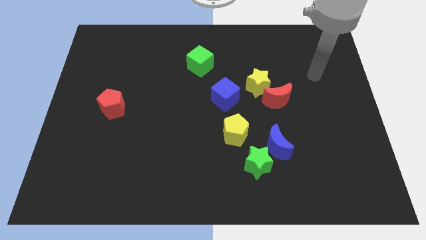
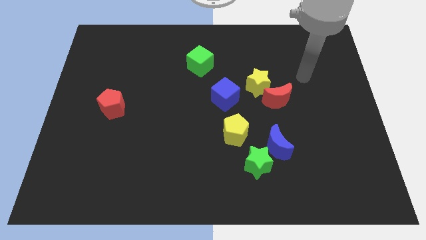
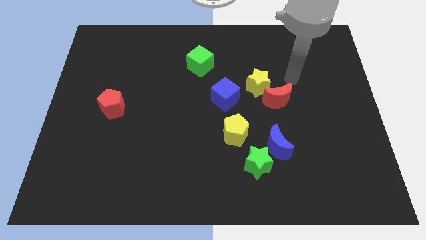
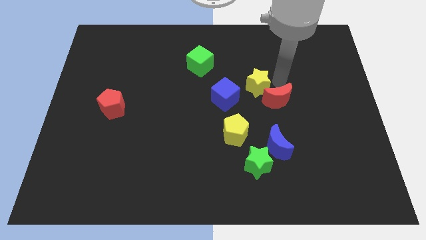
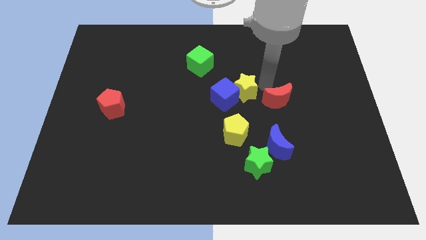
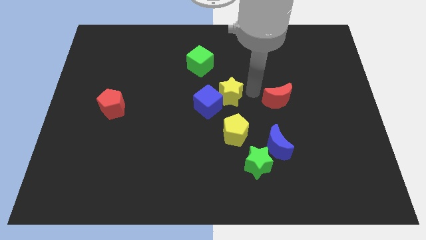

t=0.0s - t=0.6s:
separate the red moon from the yellow star

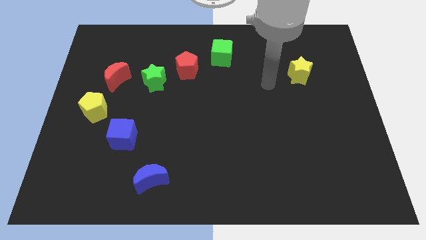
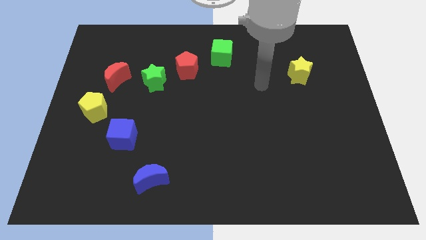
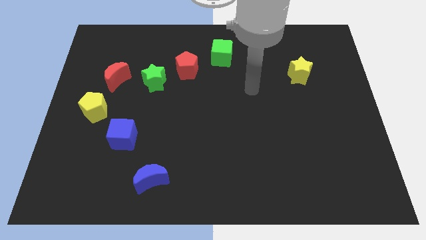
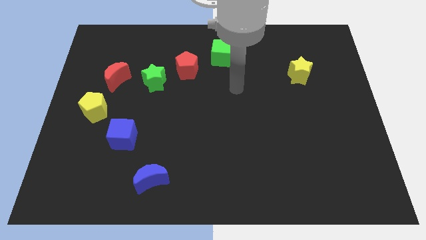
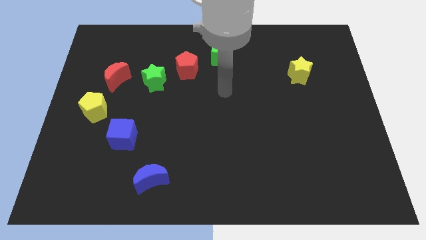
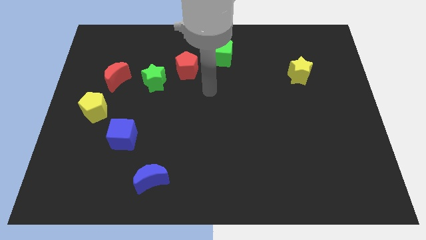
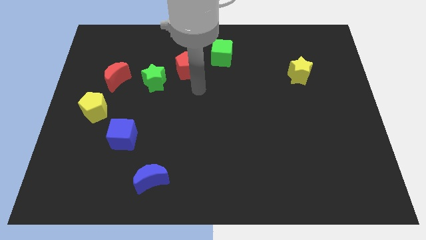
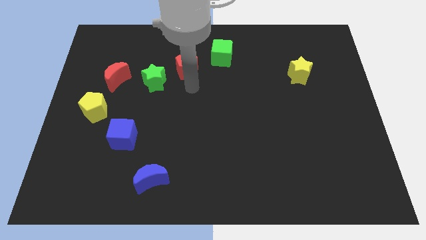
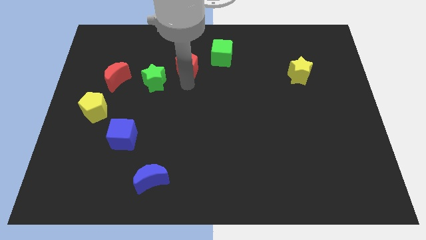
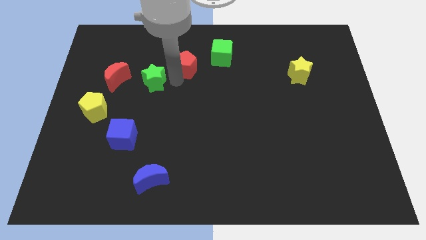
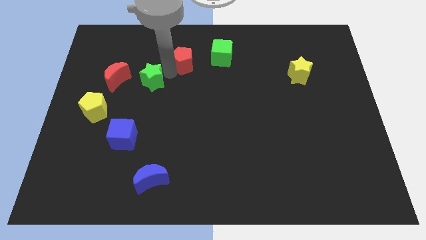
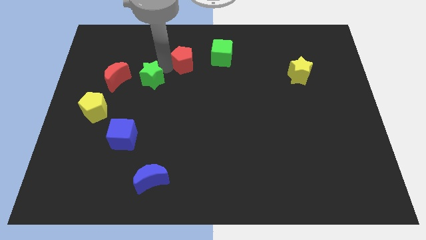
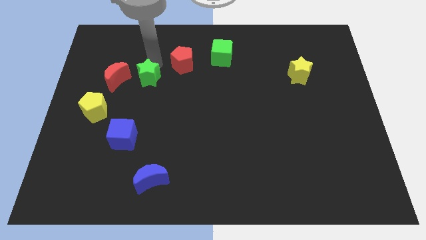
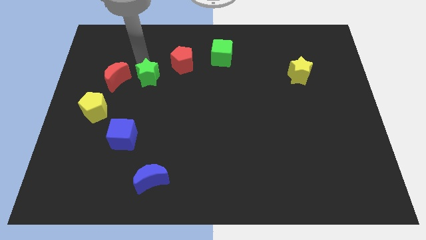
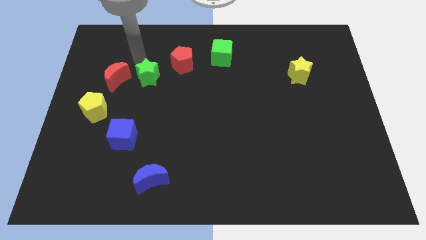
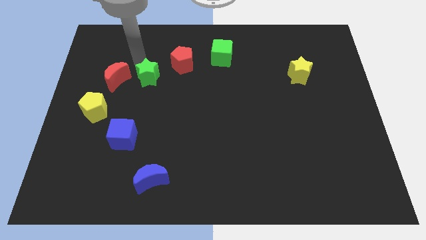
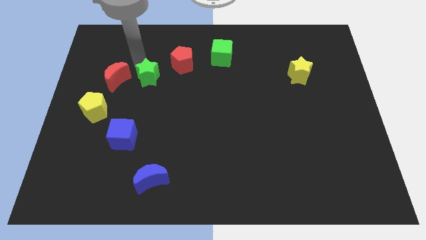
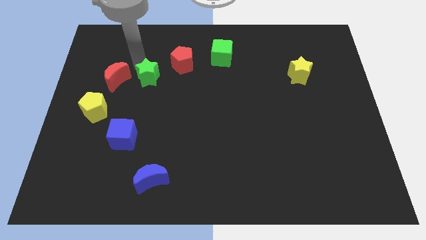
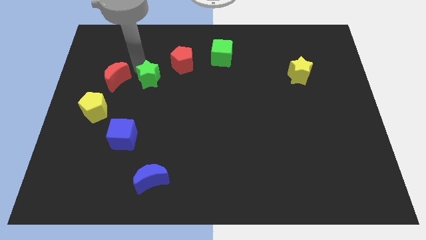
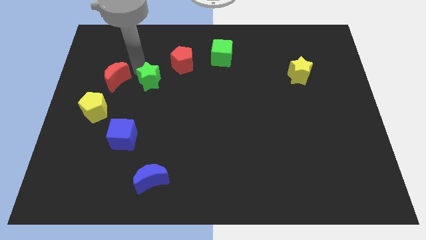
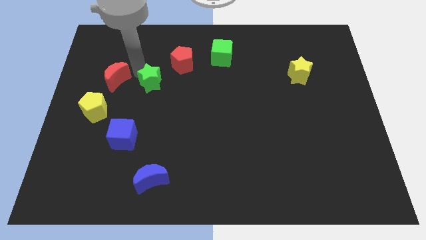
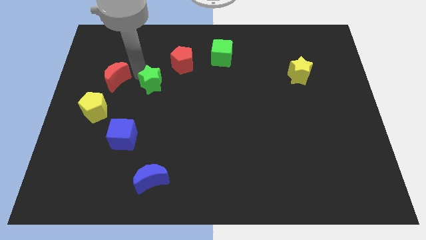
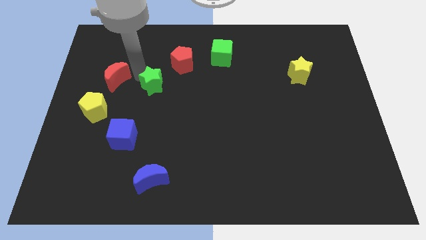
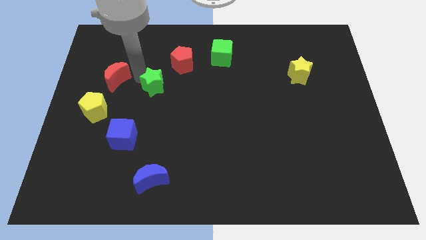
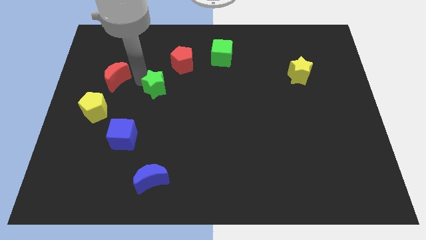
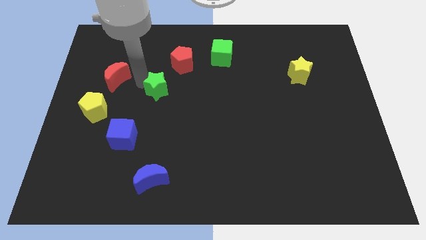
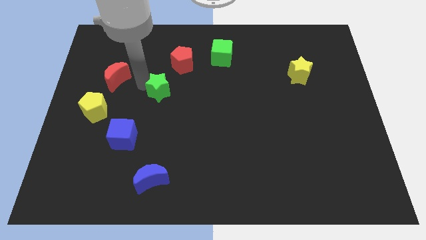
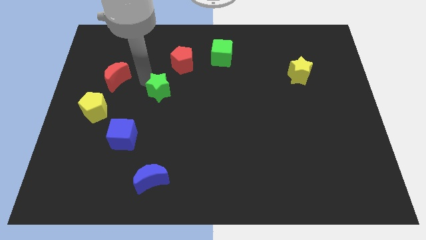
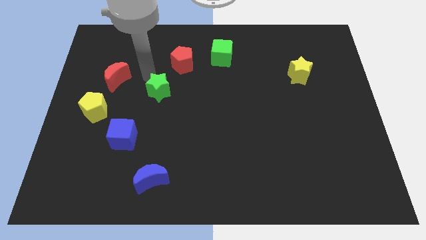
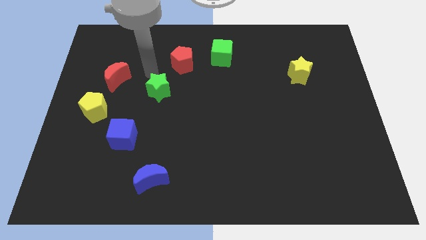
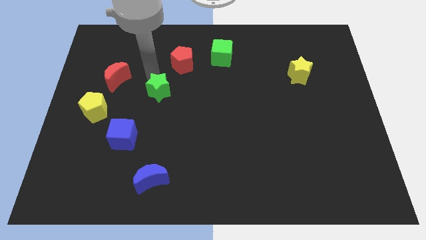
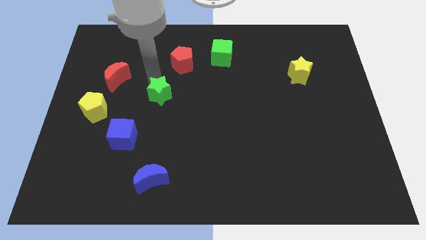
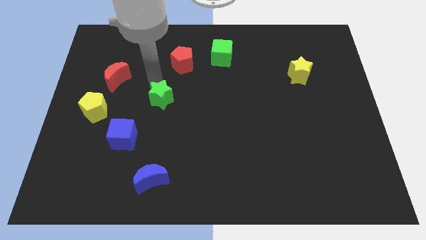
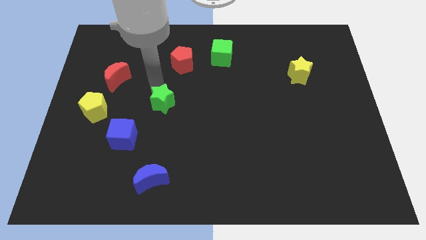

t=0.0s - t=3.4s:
move the green star away from the red pentagon and red moon

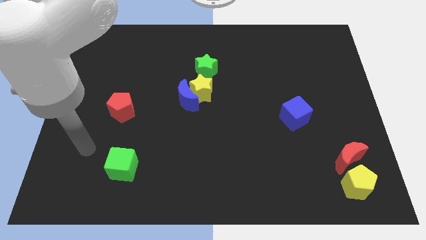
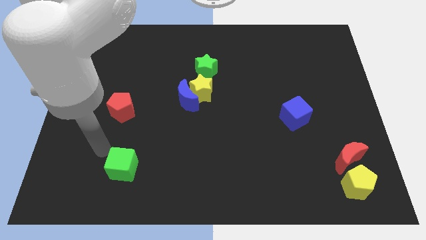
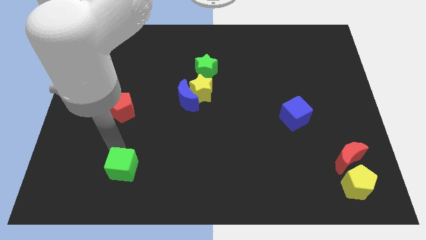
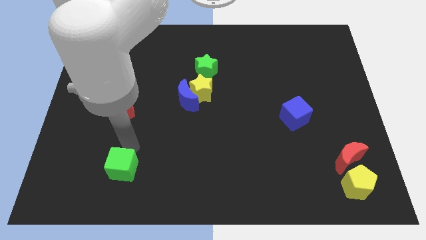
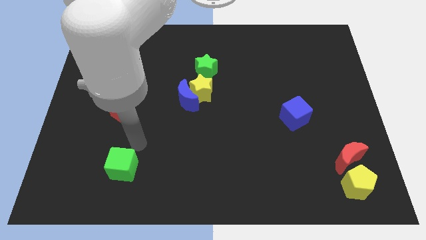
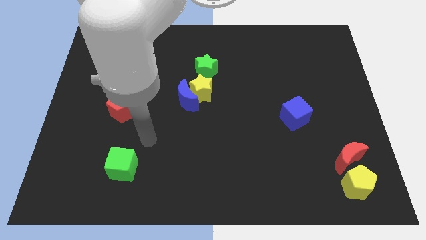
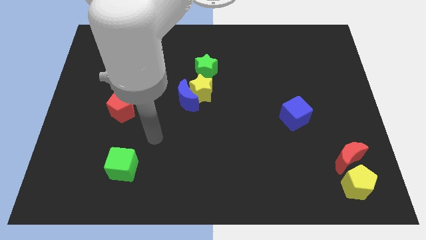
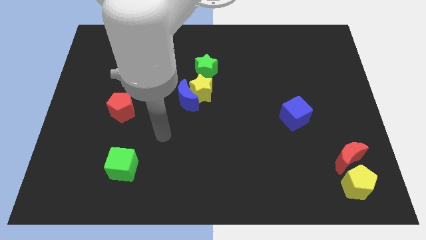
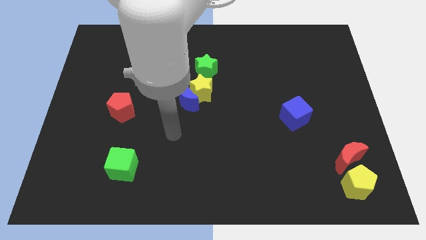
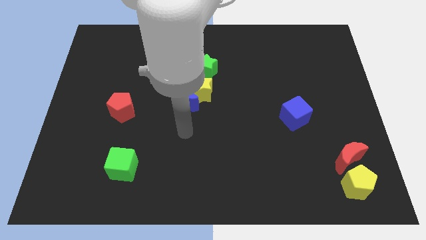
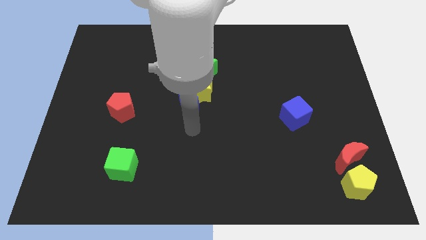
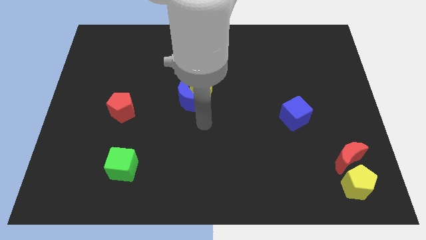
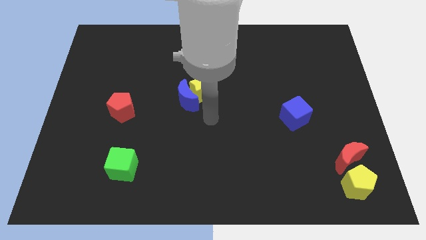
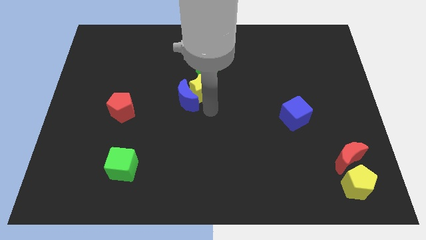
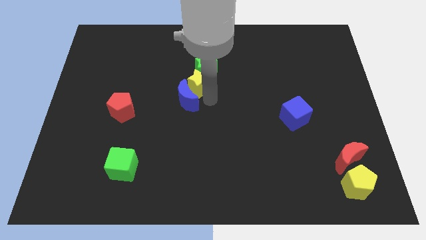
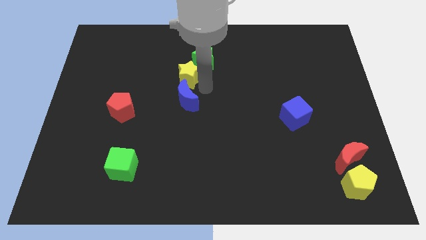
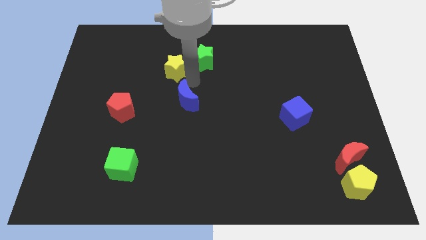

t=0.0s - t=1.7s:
separate the blue moon from the yellow star

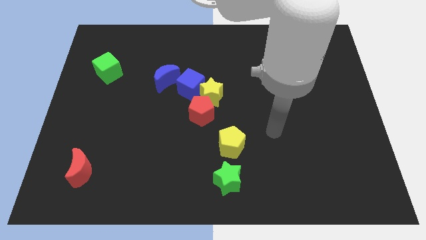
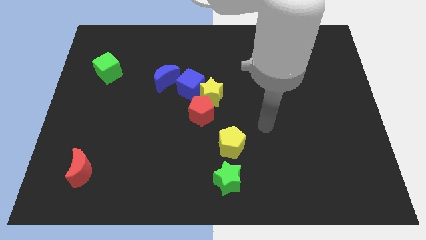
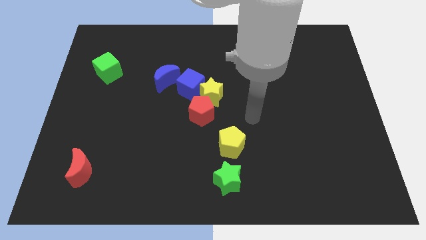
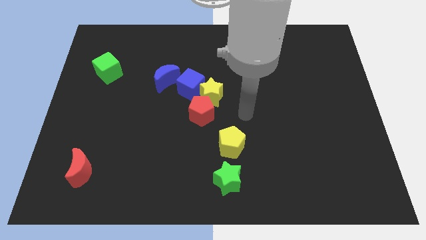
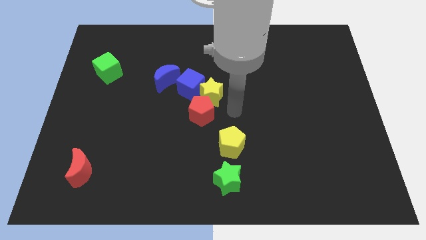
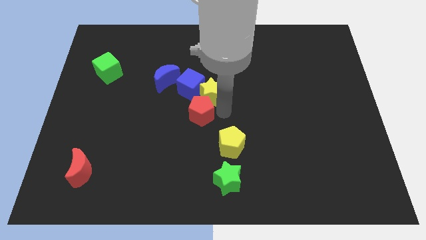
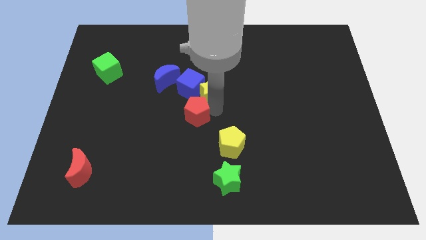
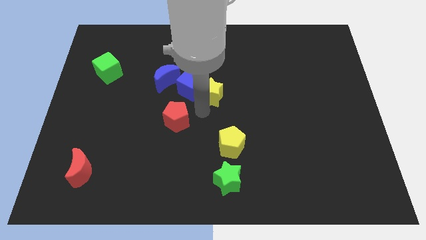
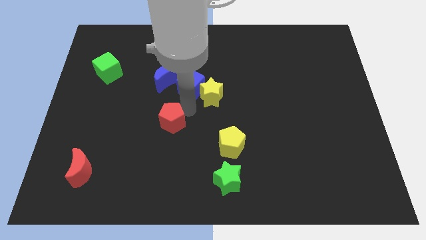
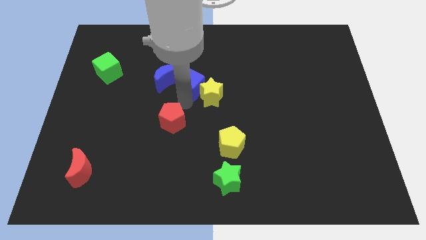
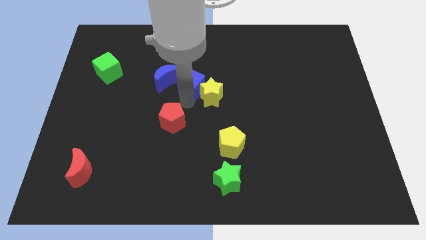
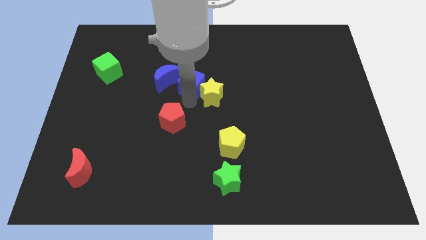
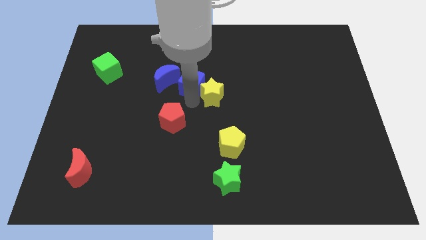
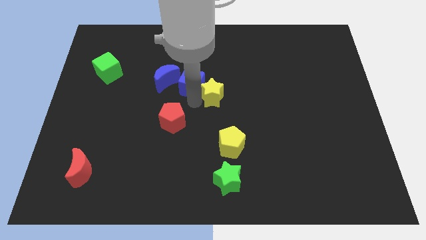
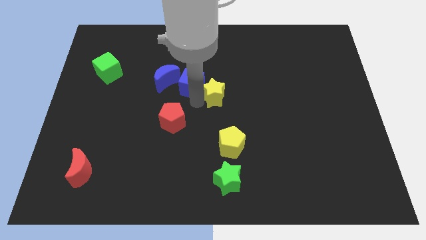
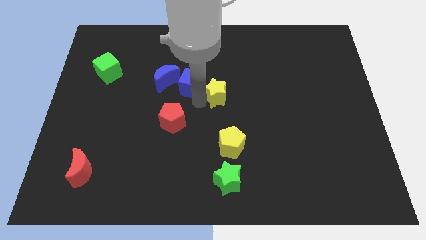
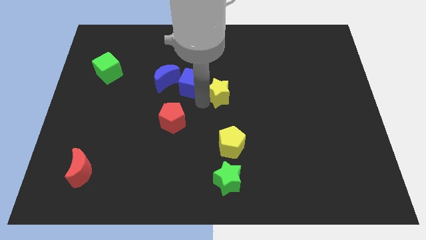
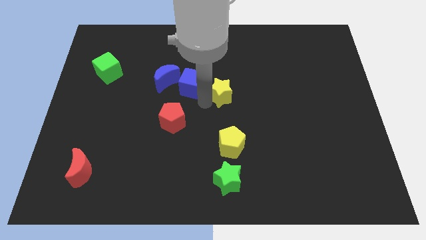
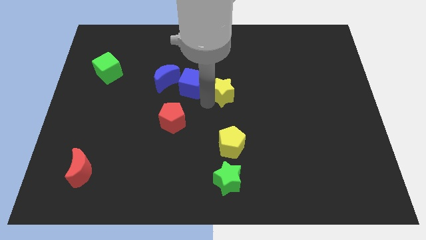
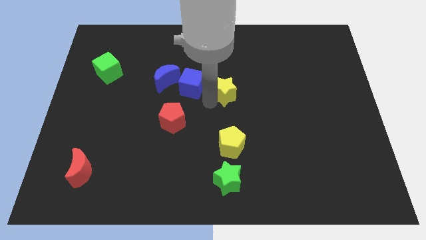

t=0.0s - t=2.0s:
separate the yellow star from the blue cube and red pentagon

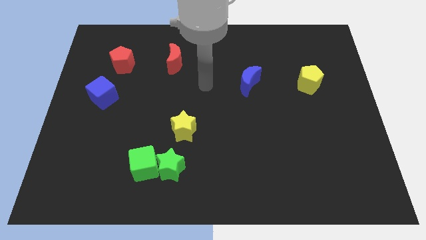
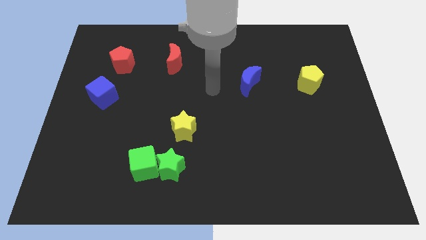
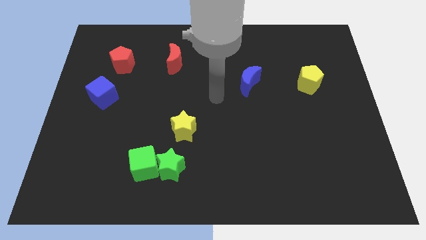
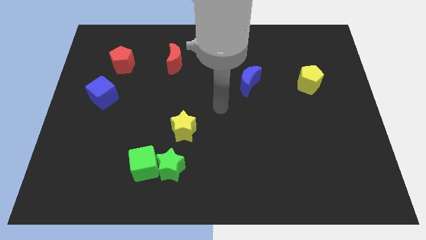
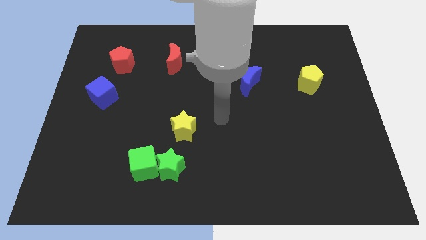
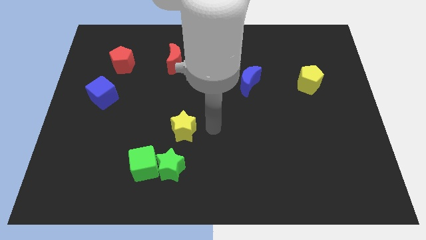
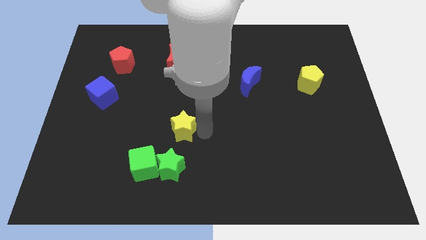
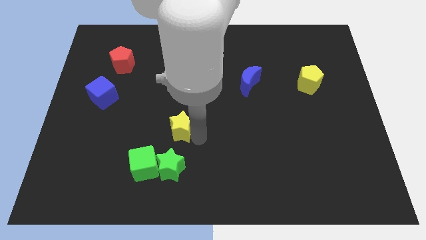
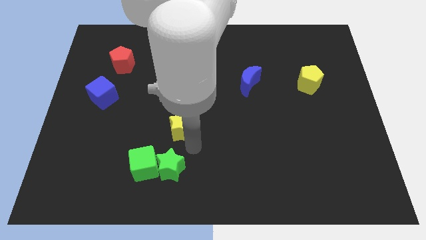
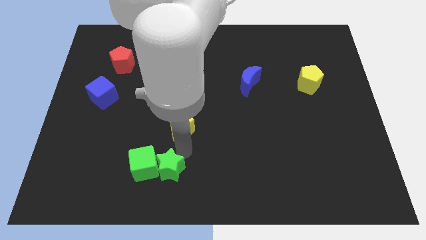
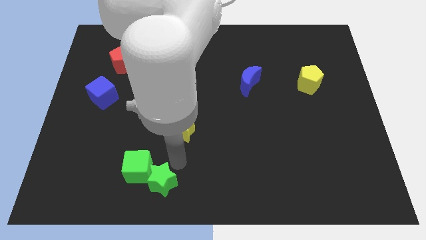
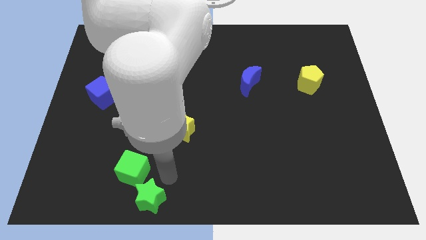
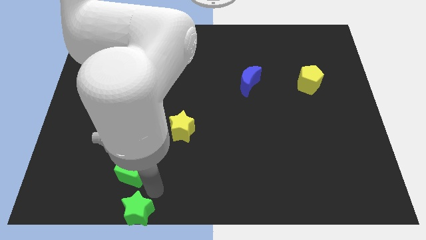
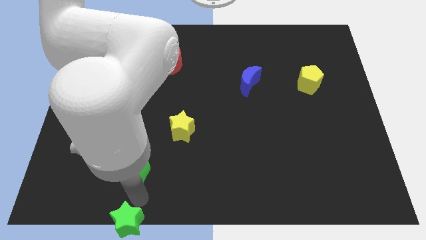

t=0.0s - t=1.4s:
move the green cube away from the green star
